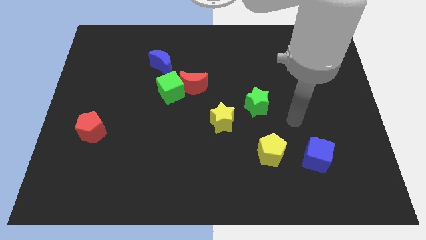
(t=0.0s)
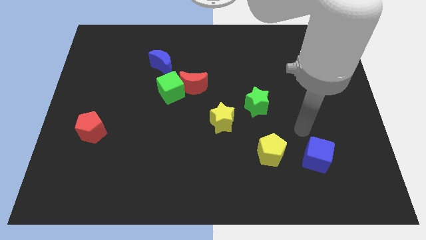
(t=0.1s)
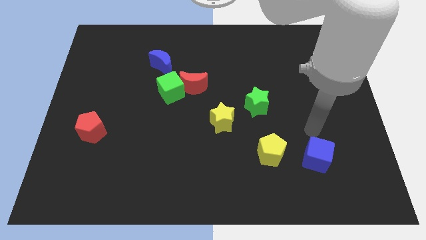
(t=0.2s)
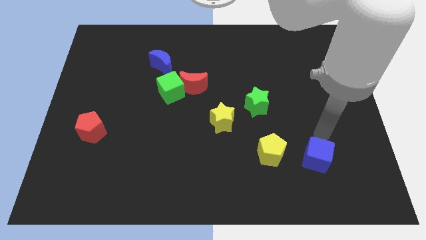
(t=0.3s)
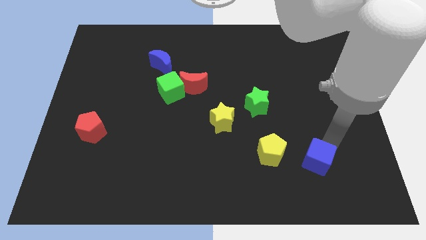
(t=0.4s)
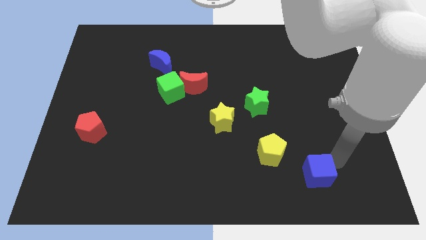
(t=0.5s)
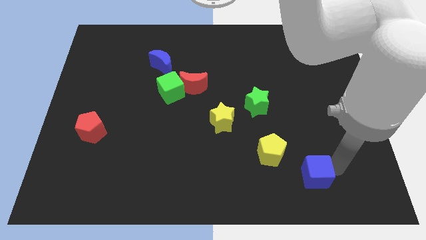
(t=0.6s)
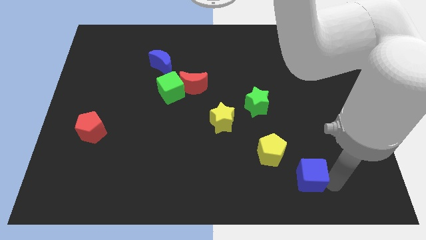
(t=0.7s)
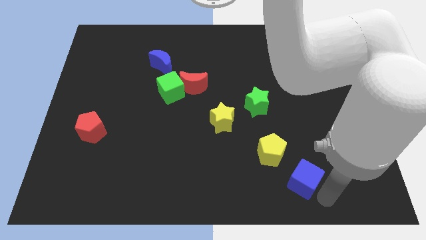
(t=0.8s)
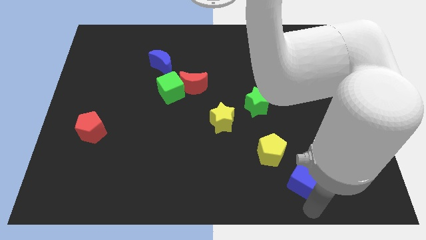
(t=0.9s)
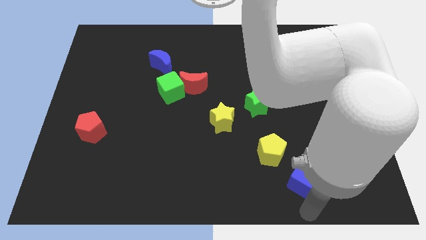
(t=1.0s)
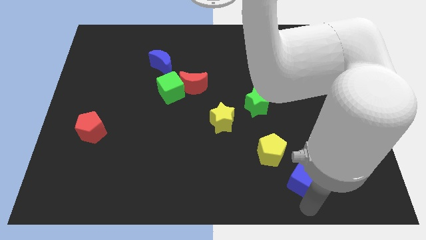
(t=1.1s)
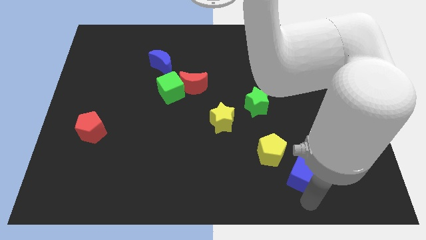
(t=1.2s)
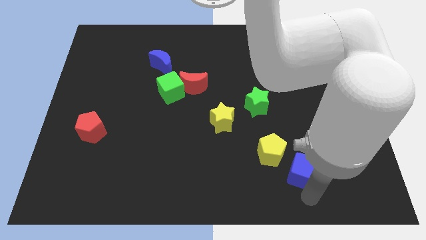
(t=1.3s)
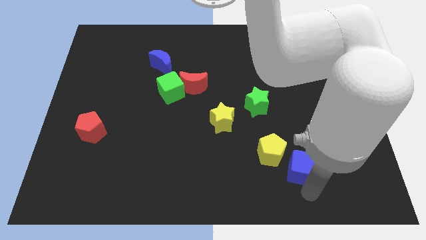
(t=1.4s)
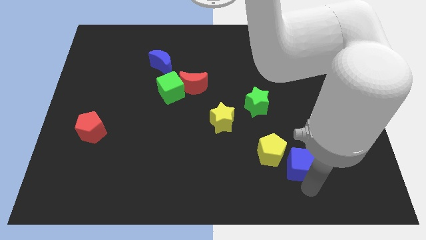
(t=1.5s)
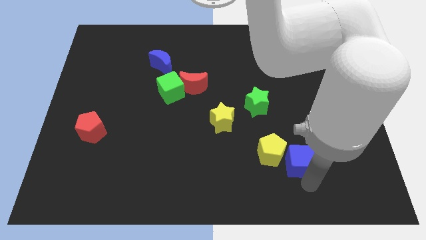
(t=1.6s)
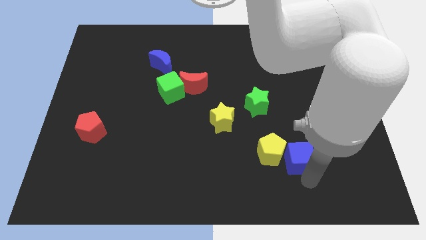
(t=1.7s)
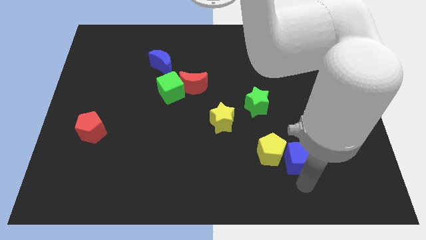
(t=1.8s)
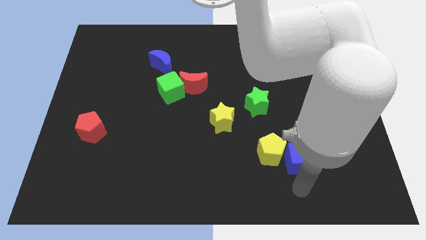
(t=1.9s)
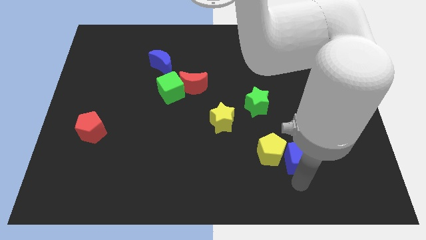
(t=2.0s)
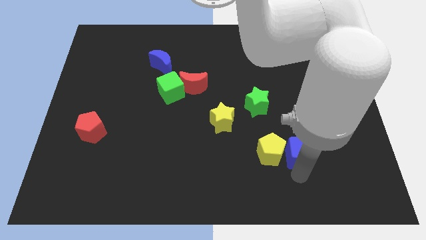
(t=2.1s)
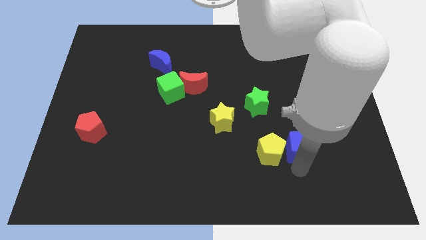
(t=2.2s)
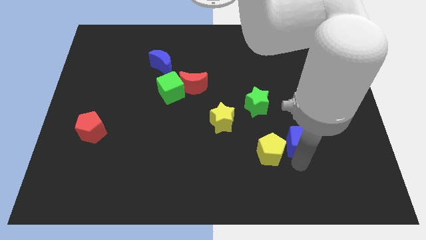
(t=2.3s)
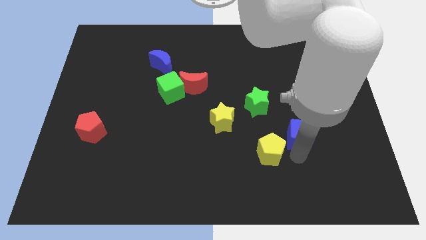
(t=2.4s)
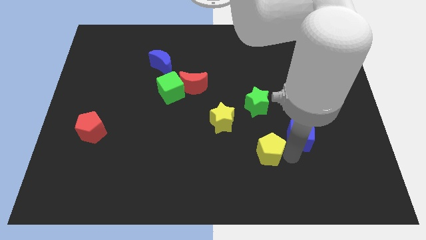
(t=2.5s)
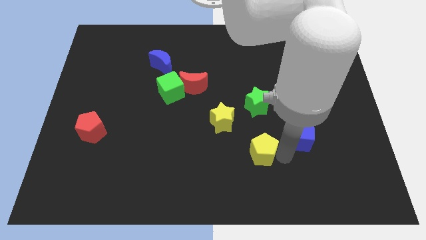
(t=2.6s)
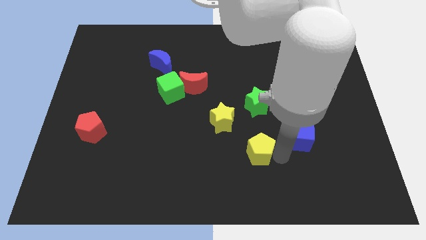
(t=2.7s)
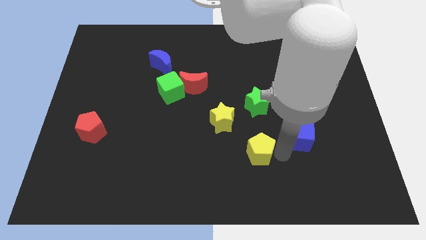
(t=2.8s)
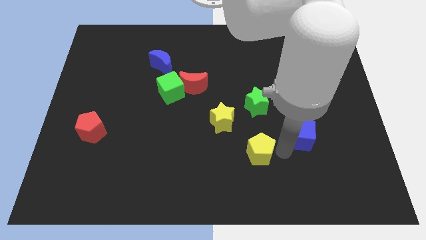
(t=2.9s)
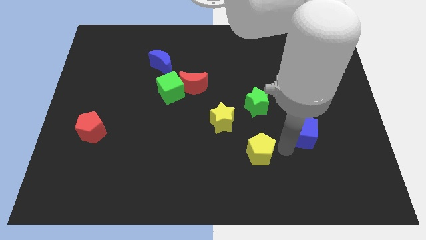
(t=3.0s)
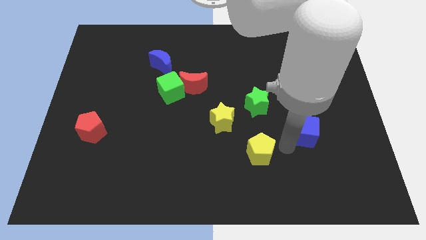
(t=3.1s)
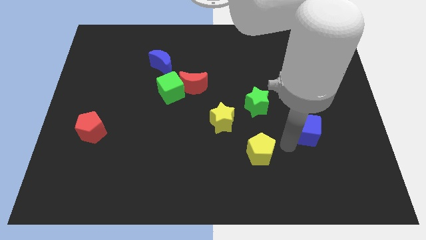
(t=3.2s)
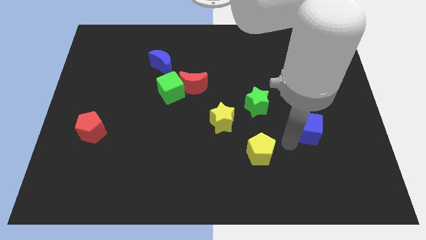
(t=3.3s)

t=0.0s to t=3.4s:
slide the blue cube a little upwards

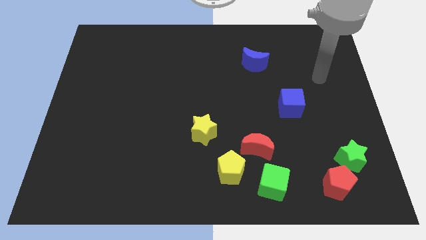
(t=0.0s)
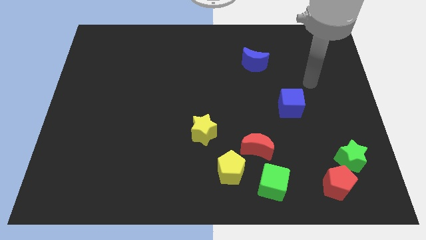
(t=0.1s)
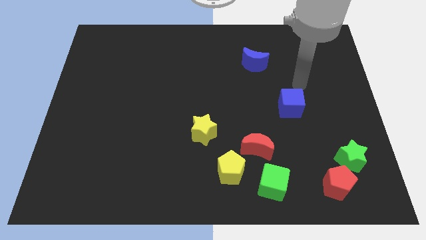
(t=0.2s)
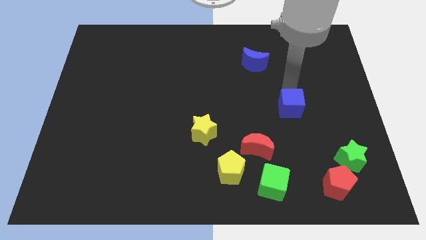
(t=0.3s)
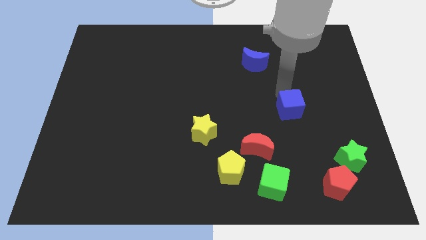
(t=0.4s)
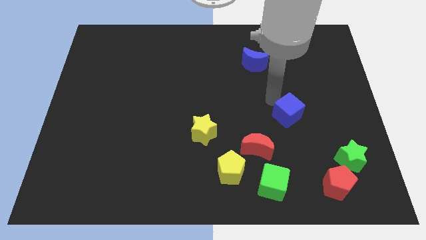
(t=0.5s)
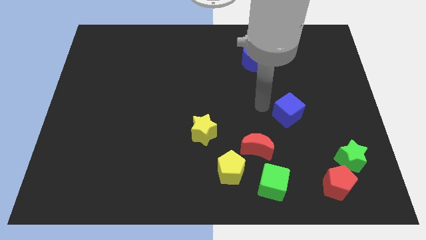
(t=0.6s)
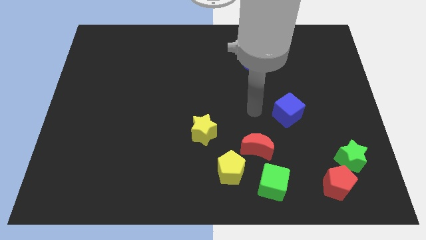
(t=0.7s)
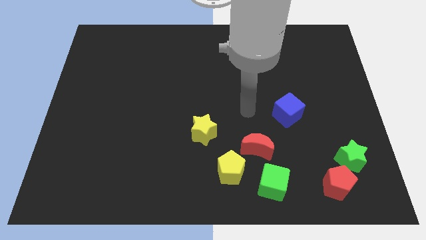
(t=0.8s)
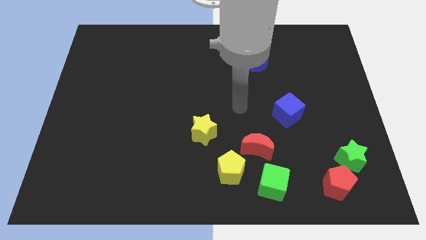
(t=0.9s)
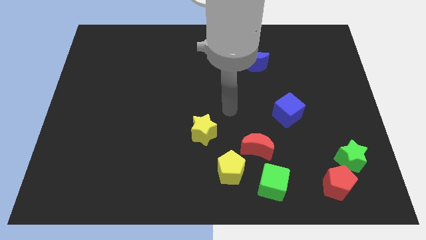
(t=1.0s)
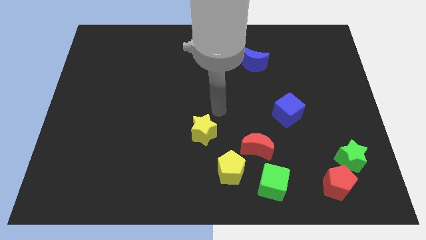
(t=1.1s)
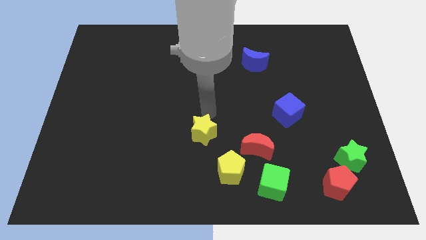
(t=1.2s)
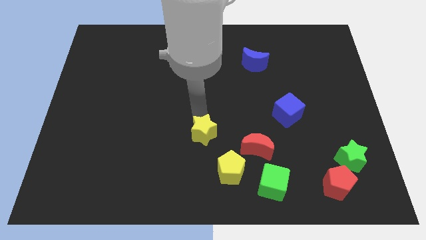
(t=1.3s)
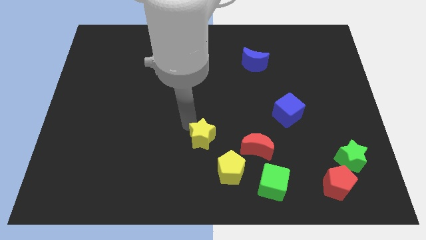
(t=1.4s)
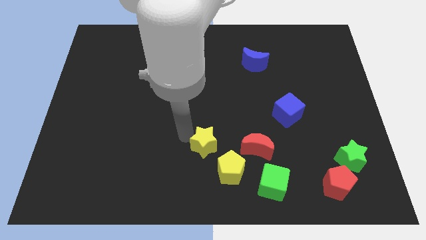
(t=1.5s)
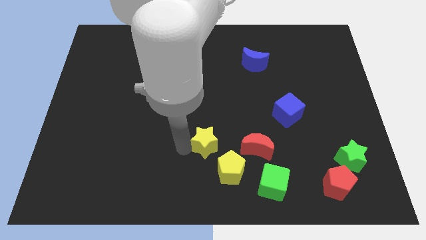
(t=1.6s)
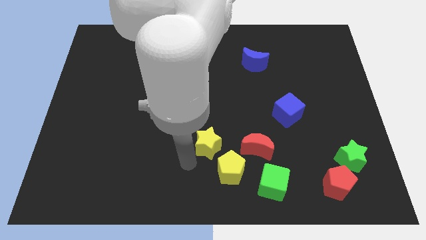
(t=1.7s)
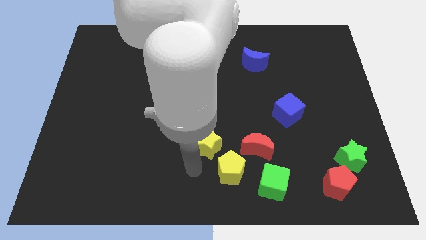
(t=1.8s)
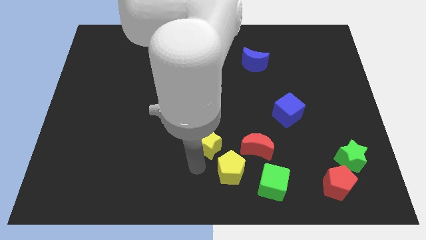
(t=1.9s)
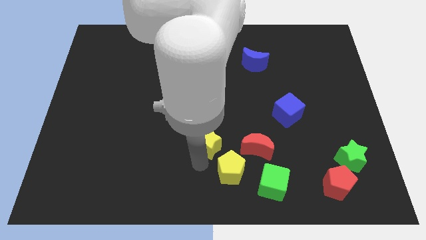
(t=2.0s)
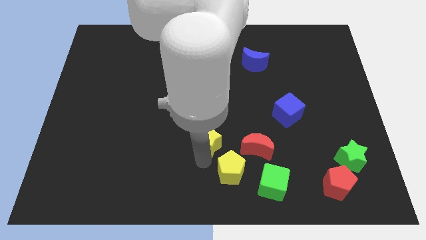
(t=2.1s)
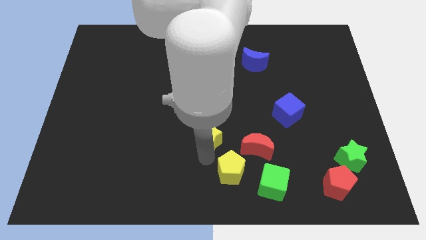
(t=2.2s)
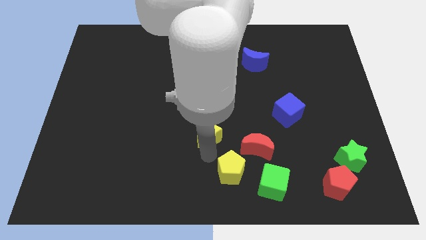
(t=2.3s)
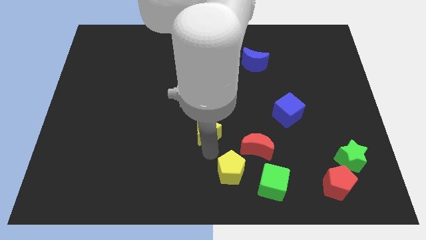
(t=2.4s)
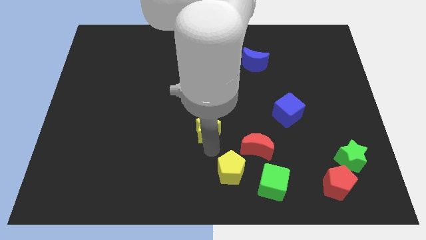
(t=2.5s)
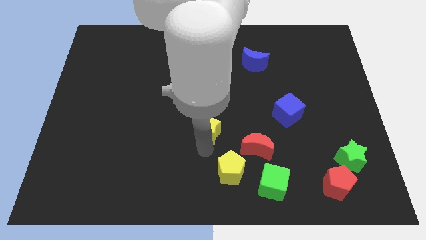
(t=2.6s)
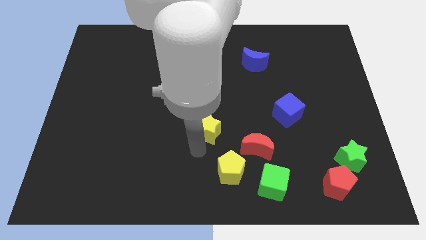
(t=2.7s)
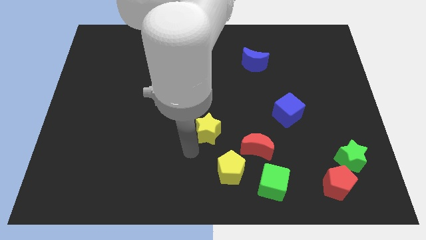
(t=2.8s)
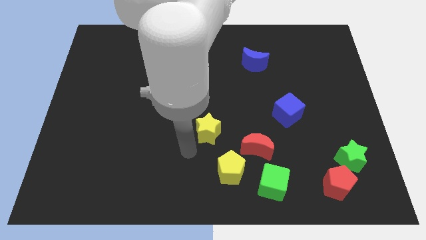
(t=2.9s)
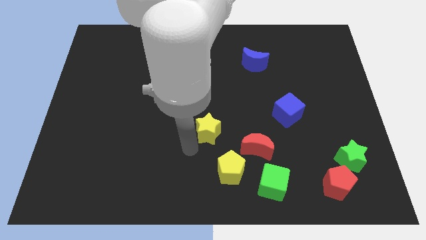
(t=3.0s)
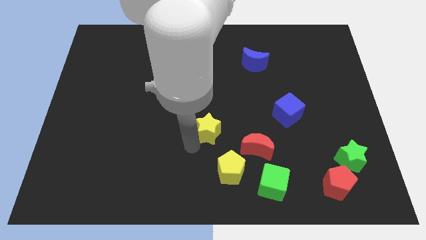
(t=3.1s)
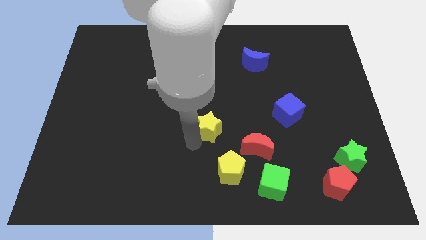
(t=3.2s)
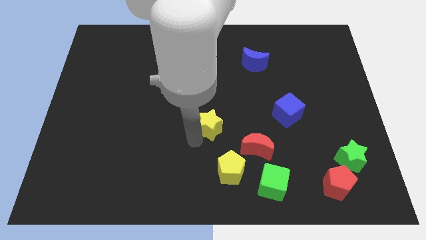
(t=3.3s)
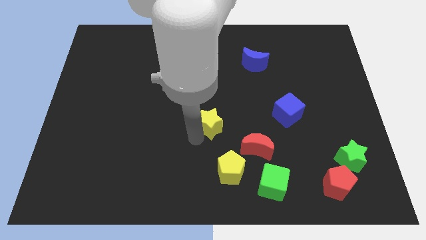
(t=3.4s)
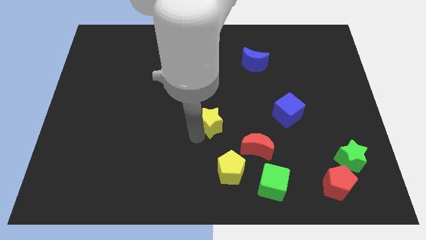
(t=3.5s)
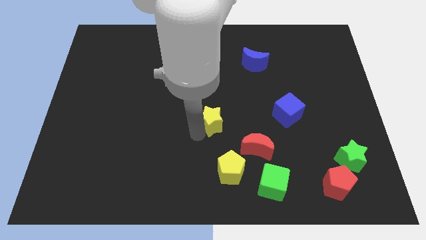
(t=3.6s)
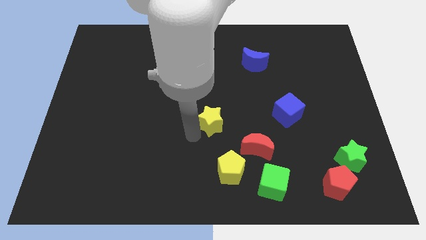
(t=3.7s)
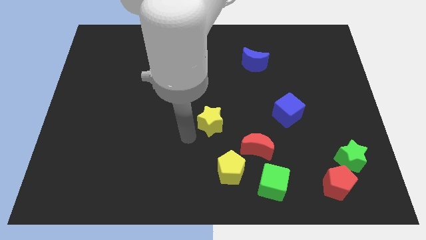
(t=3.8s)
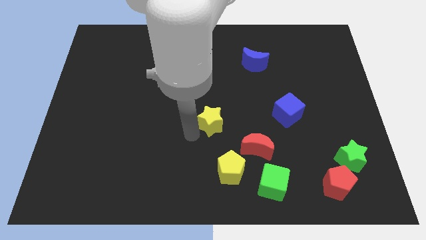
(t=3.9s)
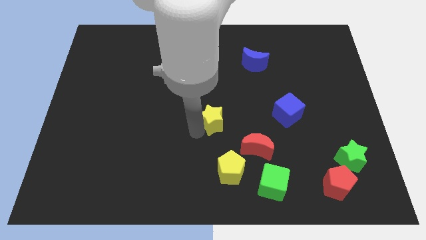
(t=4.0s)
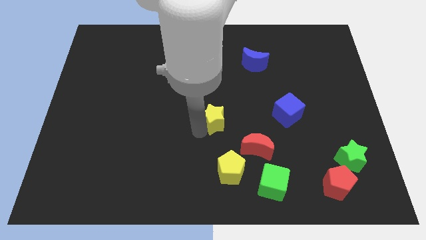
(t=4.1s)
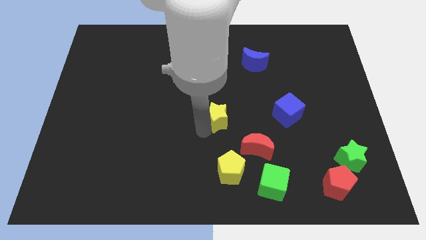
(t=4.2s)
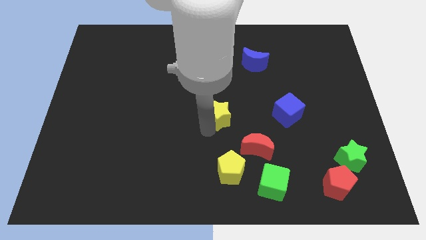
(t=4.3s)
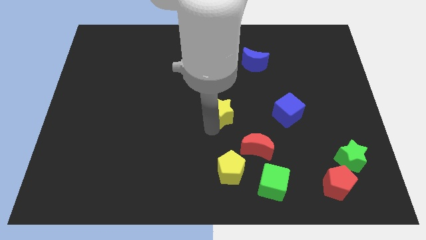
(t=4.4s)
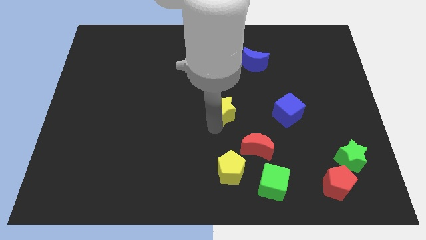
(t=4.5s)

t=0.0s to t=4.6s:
slightly push the yellow star up and to the right diagonally
